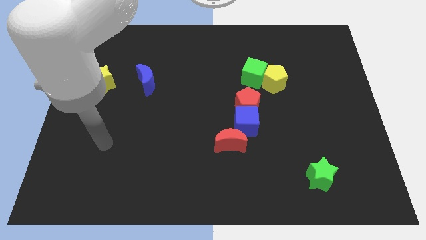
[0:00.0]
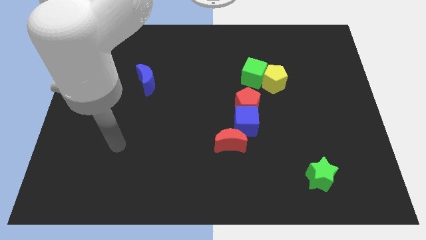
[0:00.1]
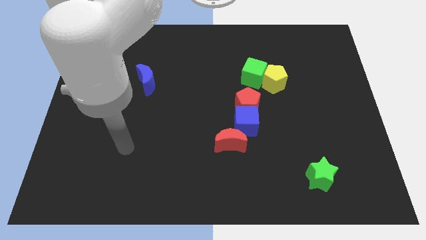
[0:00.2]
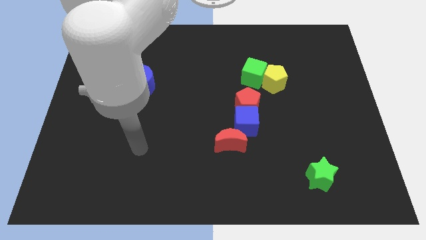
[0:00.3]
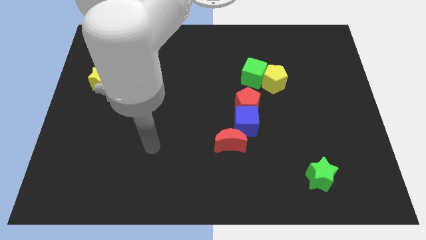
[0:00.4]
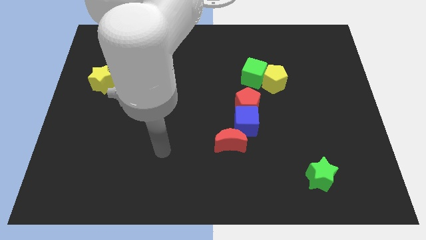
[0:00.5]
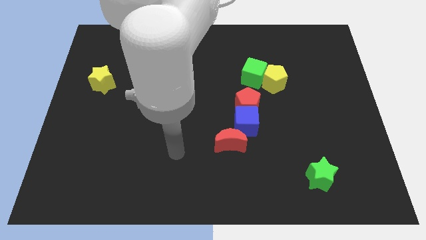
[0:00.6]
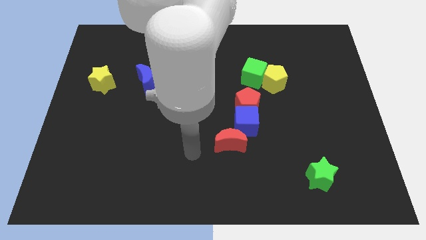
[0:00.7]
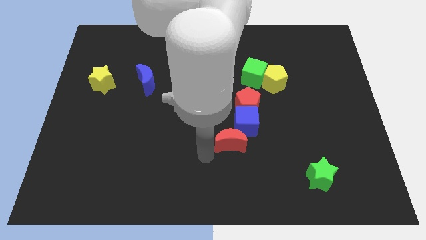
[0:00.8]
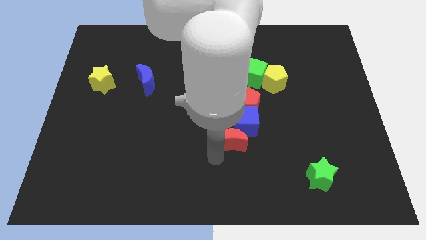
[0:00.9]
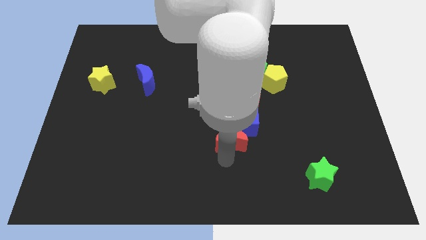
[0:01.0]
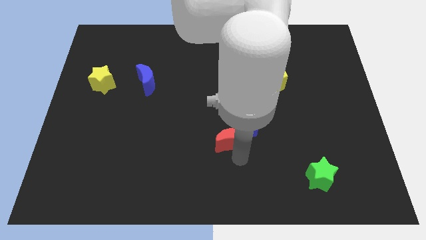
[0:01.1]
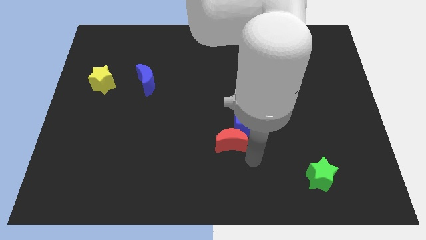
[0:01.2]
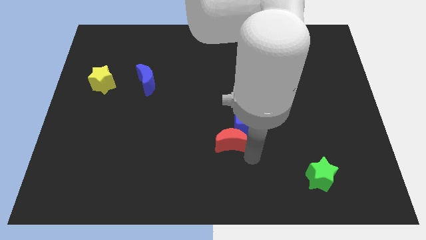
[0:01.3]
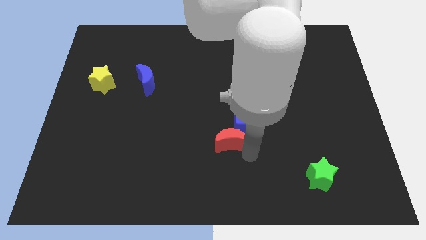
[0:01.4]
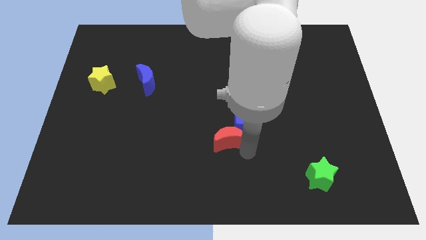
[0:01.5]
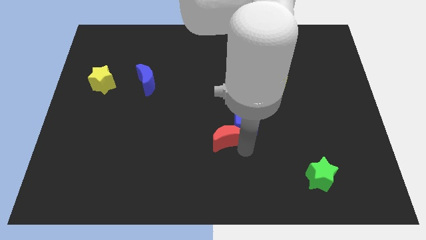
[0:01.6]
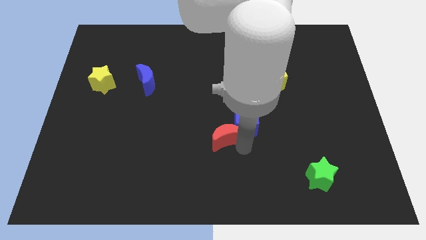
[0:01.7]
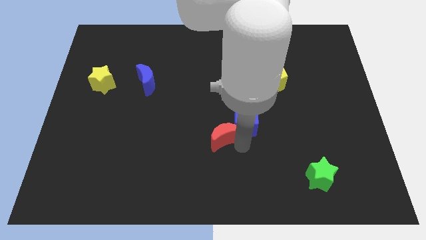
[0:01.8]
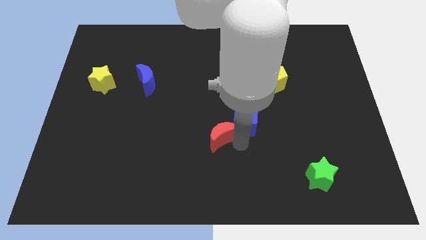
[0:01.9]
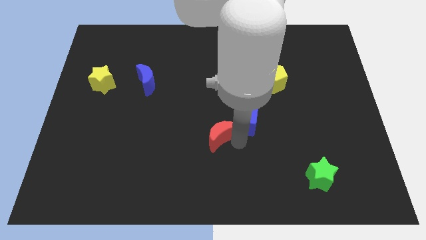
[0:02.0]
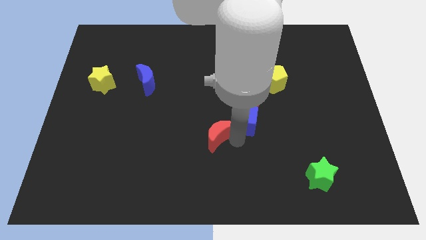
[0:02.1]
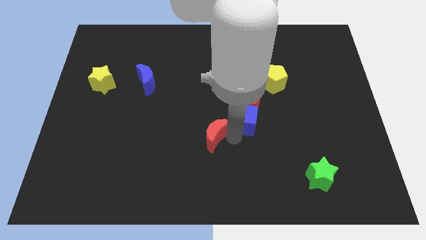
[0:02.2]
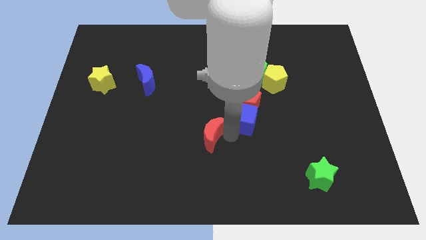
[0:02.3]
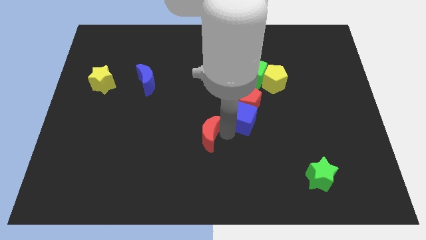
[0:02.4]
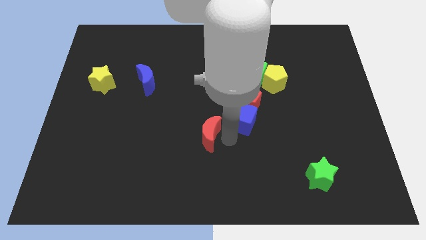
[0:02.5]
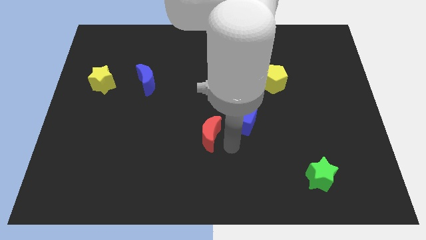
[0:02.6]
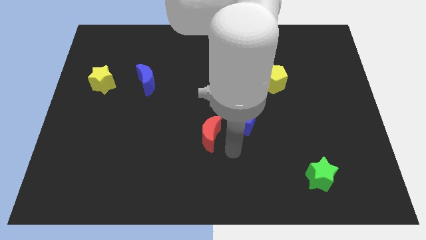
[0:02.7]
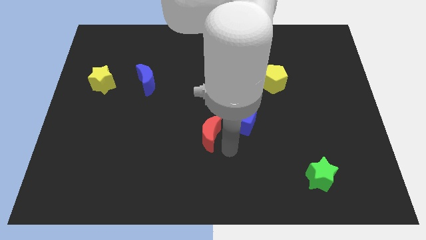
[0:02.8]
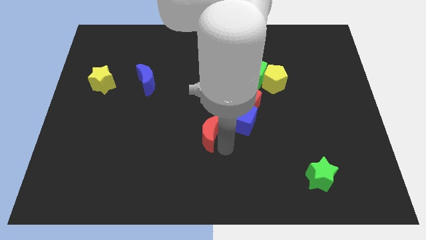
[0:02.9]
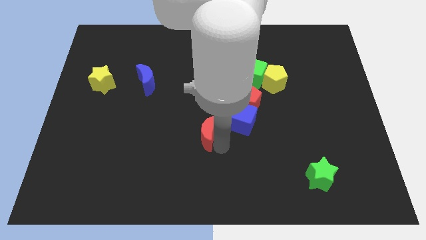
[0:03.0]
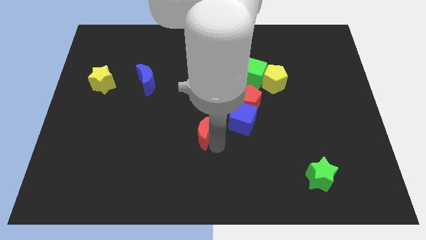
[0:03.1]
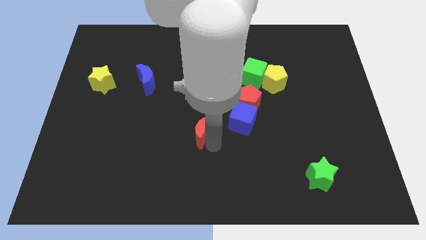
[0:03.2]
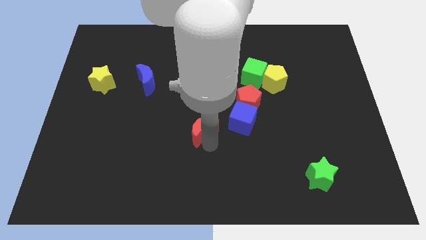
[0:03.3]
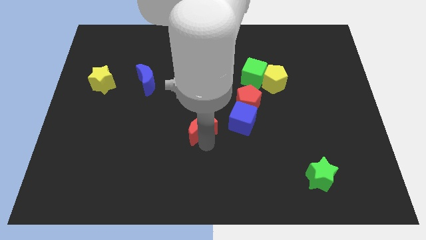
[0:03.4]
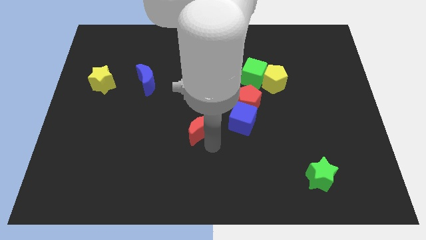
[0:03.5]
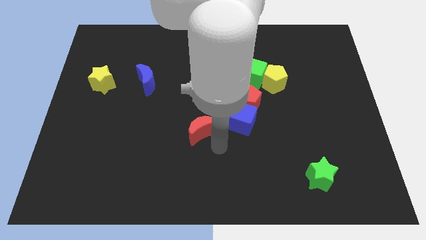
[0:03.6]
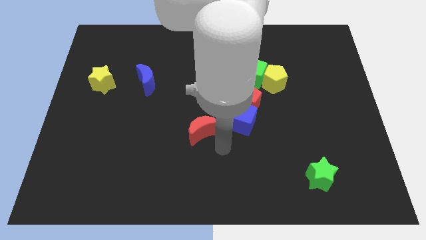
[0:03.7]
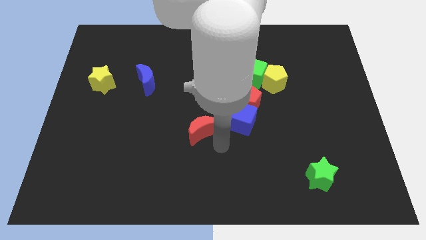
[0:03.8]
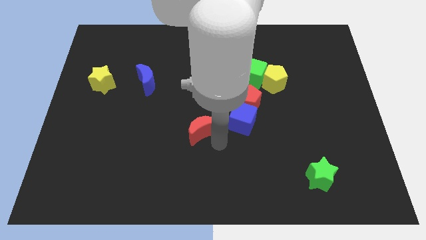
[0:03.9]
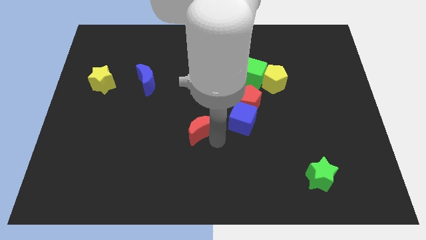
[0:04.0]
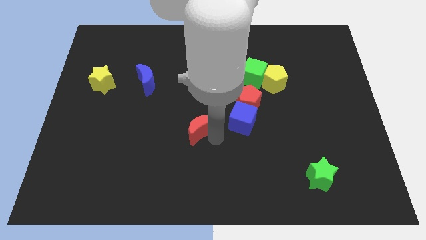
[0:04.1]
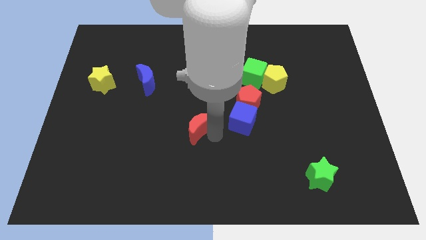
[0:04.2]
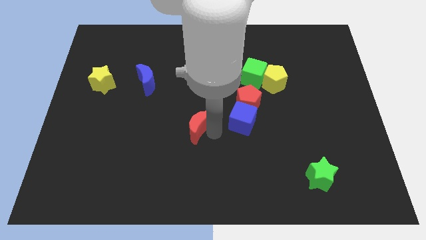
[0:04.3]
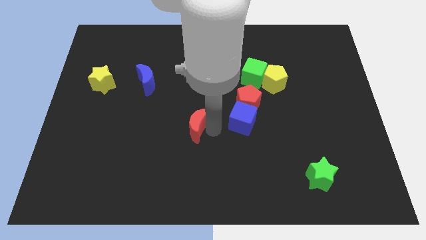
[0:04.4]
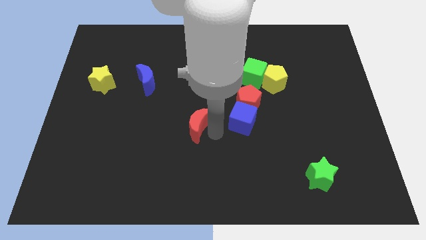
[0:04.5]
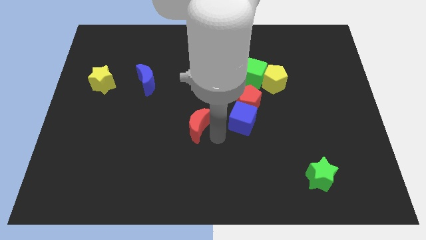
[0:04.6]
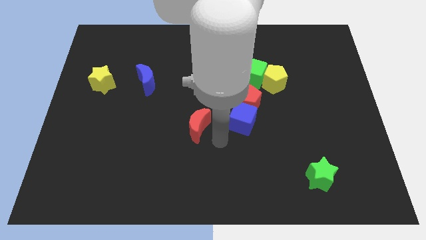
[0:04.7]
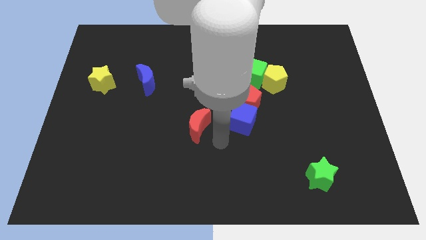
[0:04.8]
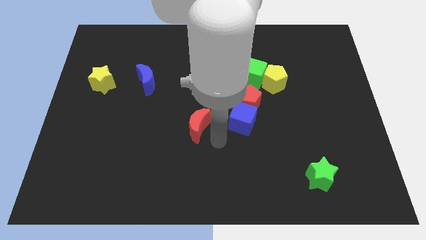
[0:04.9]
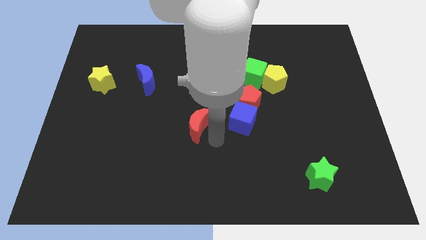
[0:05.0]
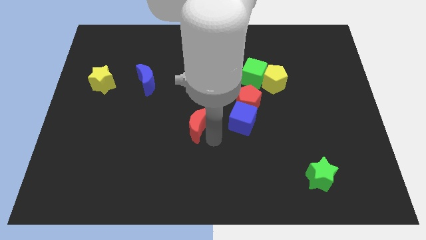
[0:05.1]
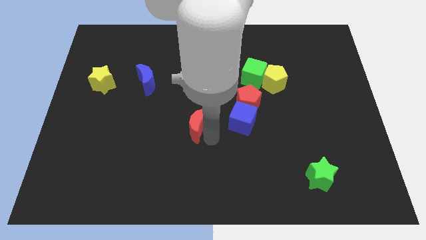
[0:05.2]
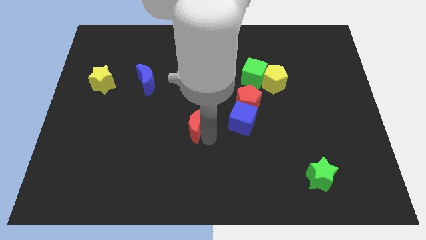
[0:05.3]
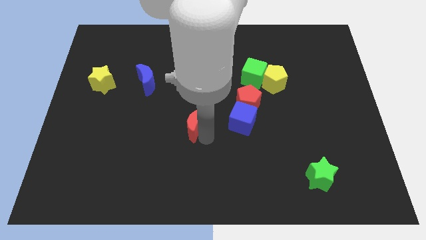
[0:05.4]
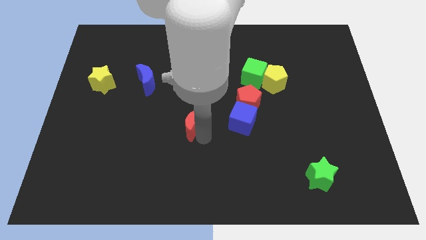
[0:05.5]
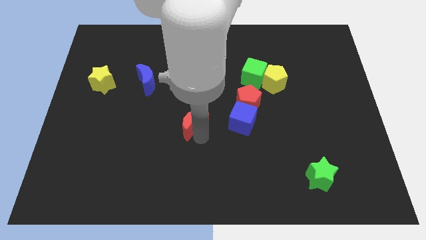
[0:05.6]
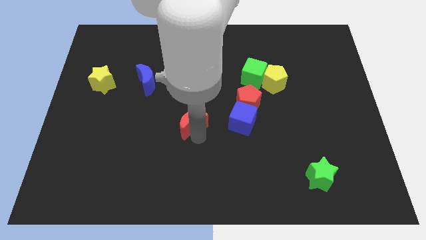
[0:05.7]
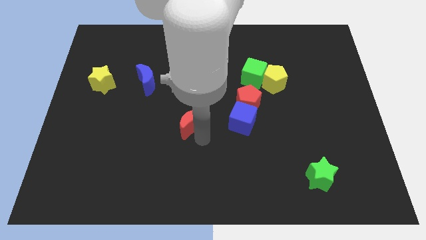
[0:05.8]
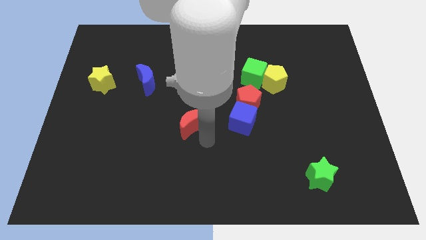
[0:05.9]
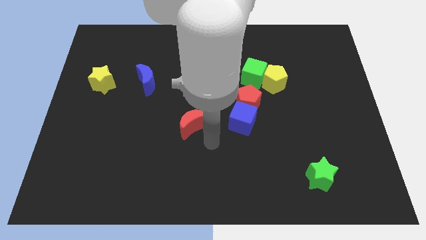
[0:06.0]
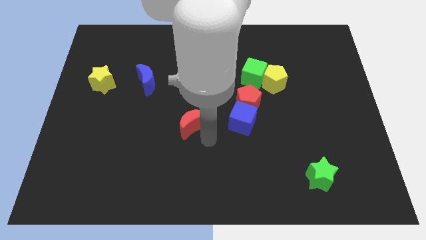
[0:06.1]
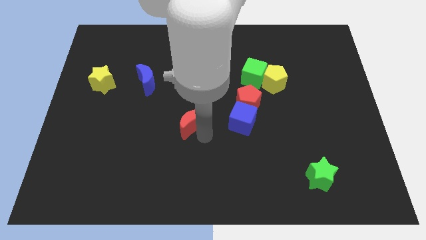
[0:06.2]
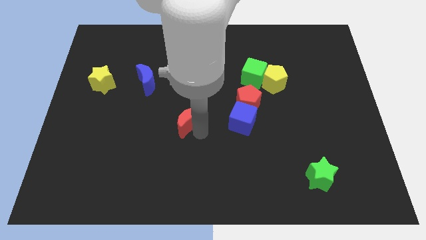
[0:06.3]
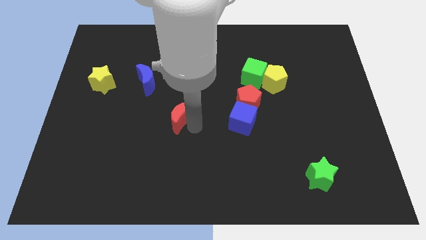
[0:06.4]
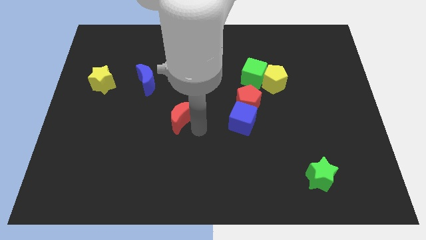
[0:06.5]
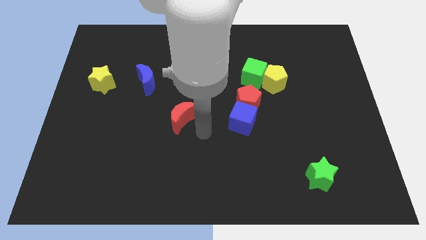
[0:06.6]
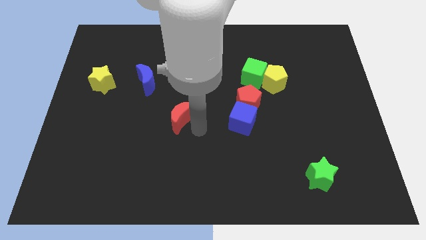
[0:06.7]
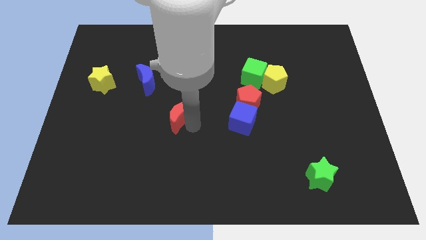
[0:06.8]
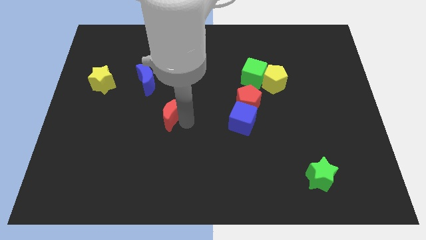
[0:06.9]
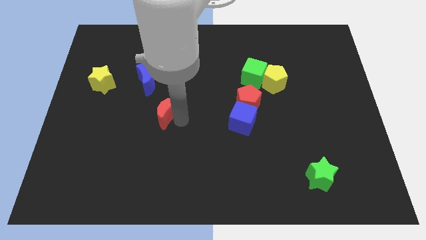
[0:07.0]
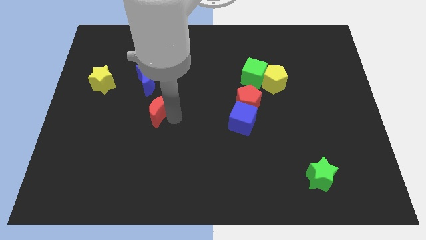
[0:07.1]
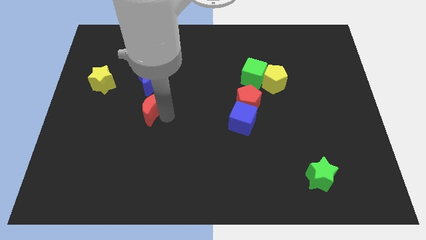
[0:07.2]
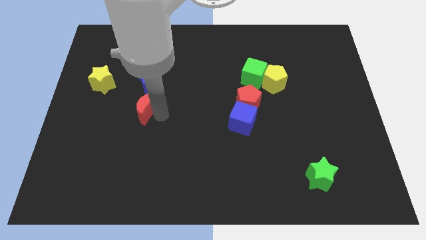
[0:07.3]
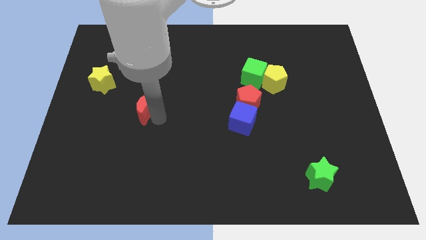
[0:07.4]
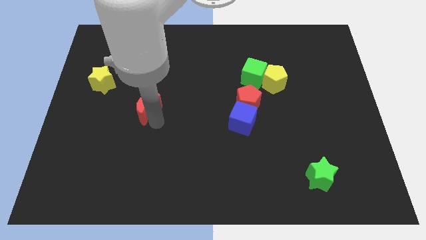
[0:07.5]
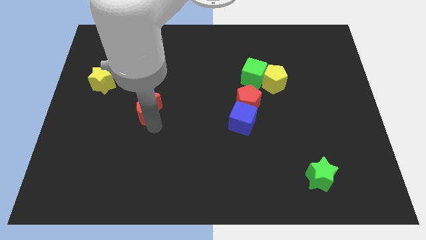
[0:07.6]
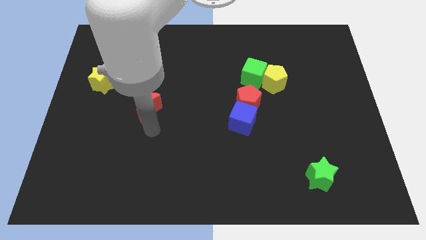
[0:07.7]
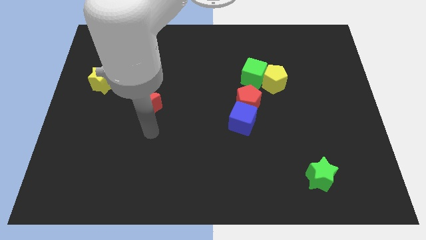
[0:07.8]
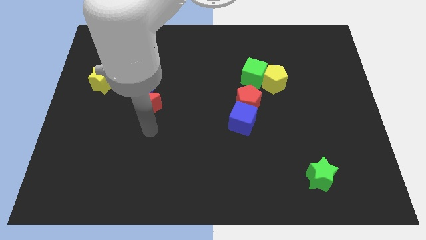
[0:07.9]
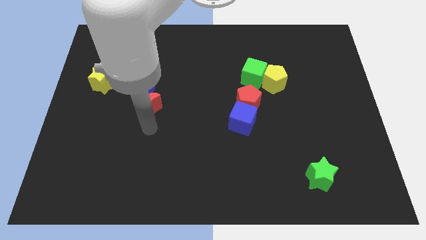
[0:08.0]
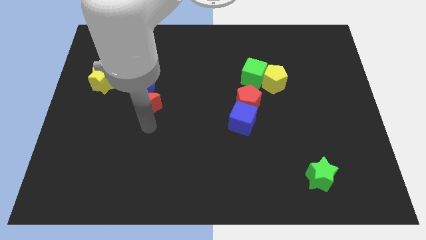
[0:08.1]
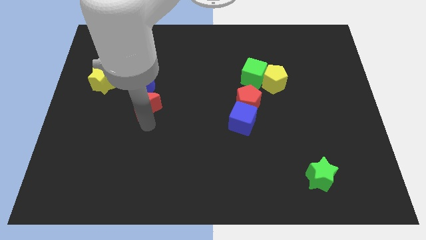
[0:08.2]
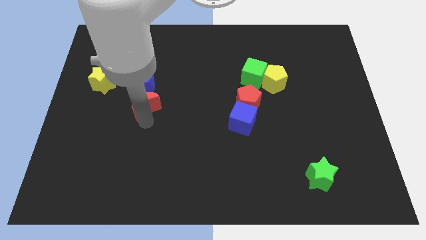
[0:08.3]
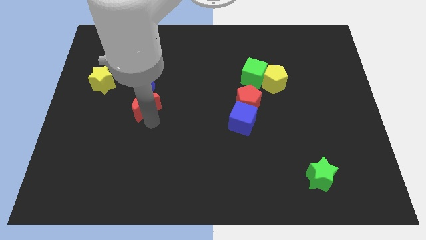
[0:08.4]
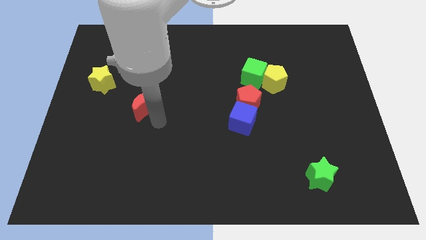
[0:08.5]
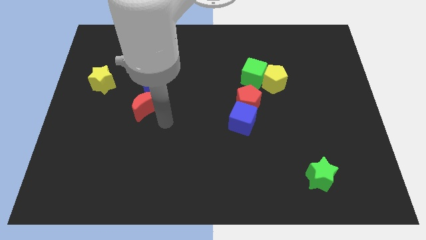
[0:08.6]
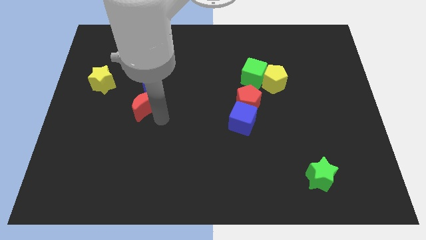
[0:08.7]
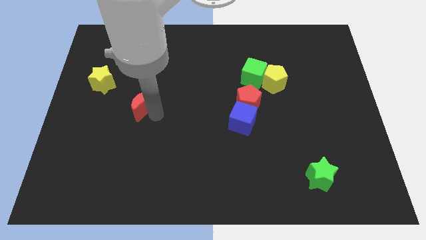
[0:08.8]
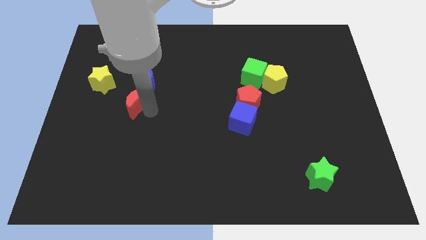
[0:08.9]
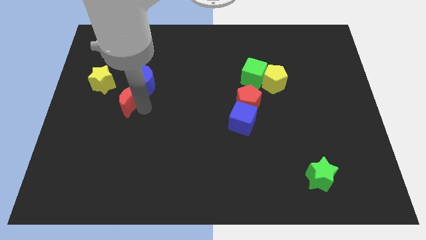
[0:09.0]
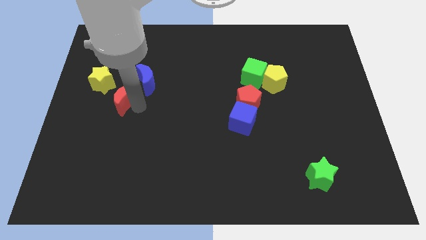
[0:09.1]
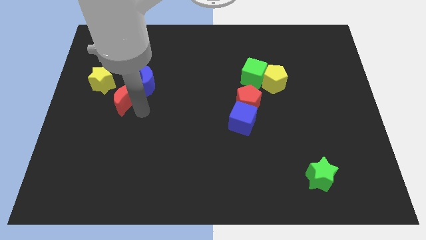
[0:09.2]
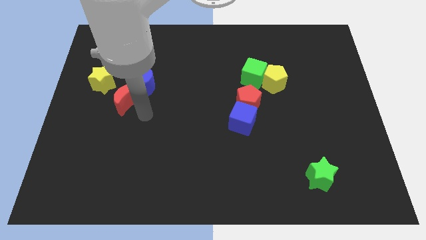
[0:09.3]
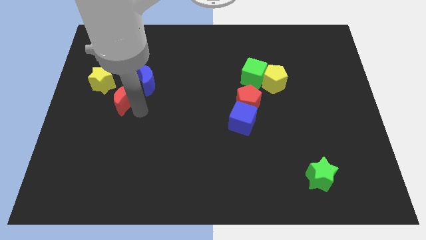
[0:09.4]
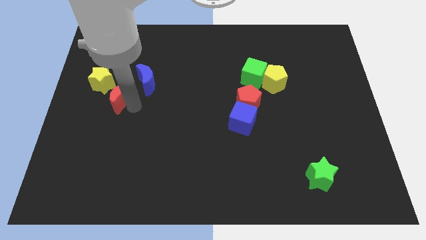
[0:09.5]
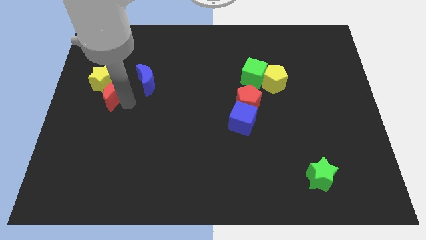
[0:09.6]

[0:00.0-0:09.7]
slide the red moon close to the yellow star
